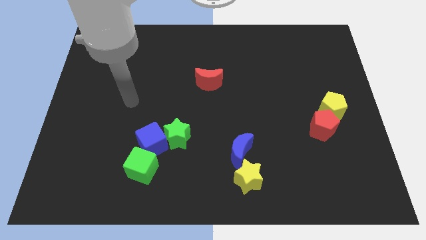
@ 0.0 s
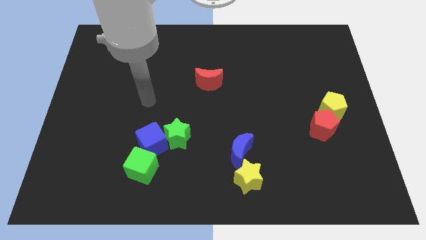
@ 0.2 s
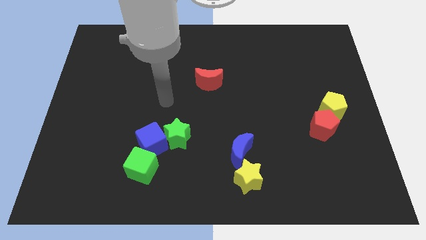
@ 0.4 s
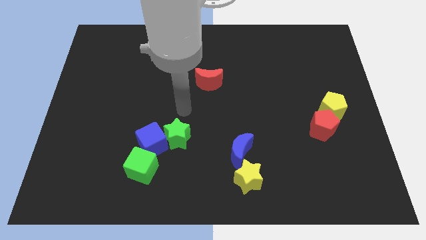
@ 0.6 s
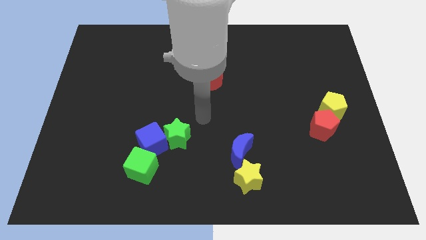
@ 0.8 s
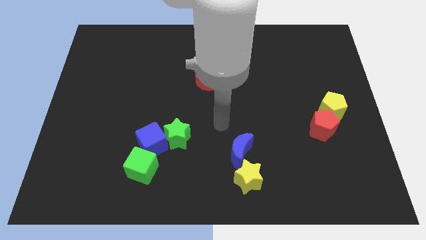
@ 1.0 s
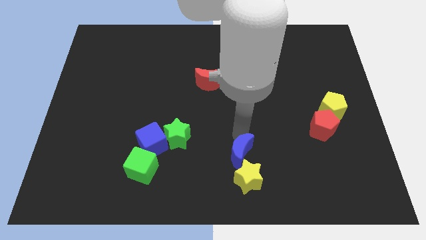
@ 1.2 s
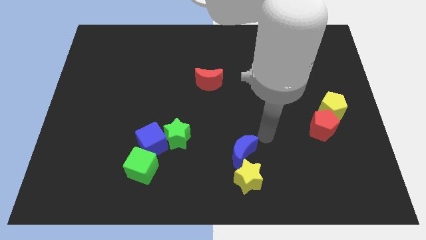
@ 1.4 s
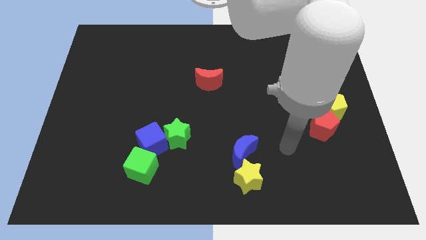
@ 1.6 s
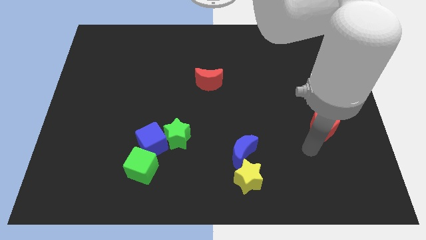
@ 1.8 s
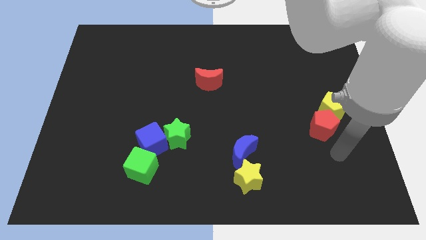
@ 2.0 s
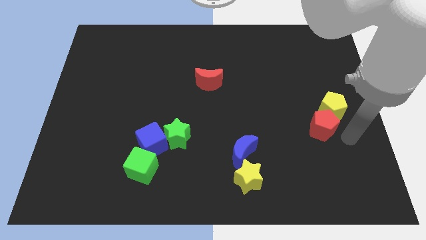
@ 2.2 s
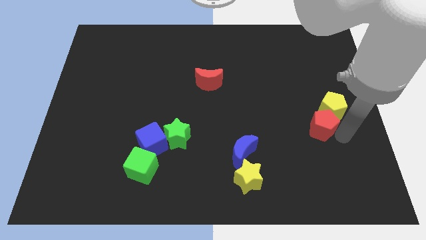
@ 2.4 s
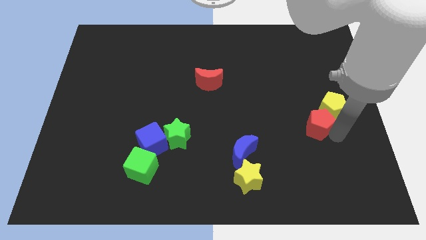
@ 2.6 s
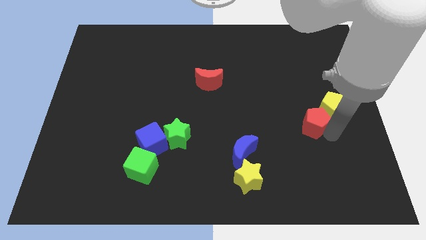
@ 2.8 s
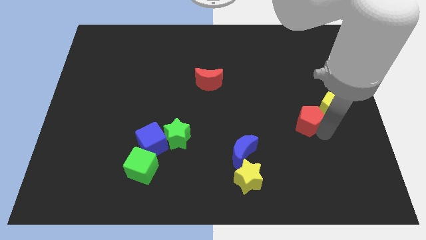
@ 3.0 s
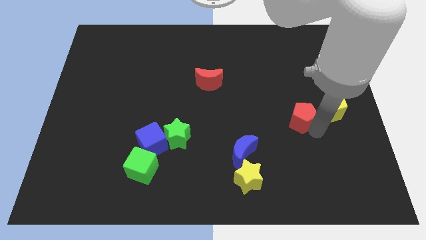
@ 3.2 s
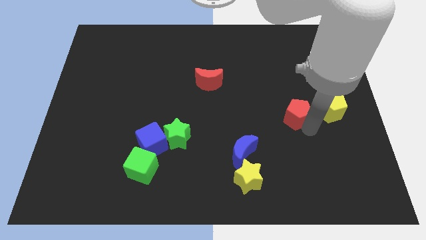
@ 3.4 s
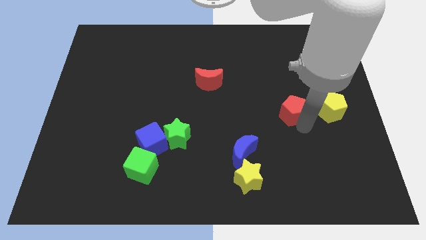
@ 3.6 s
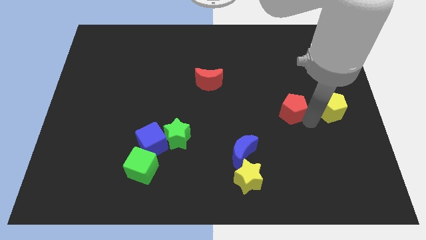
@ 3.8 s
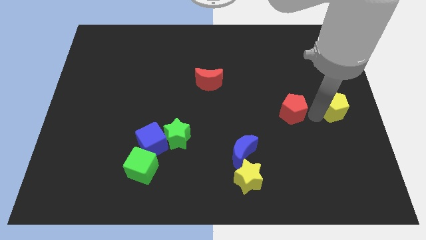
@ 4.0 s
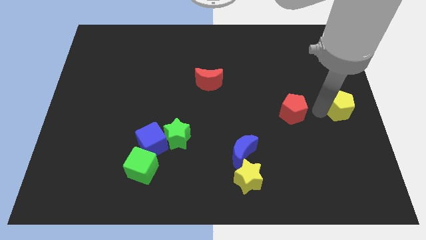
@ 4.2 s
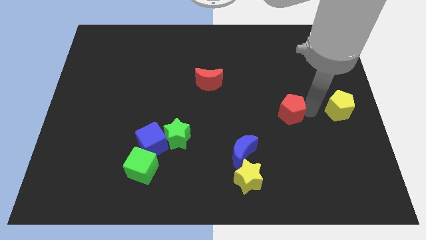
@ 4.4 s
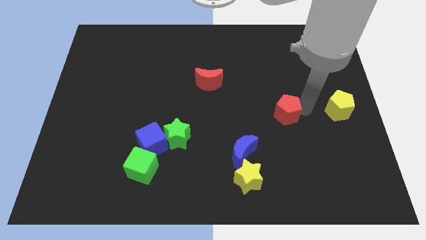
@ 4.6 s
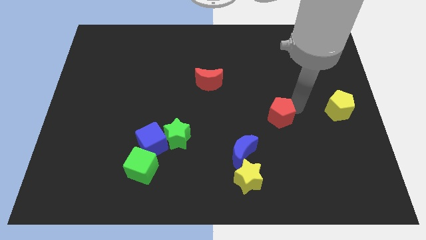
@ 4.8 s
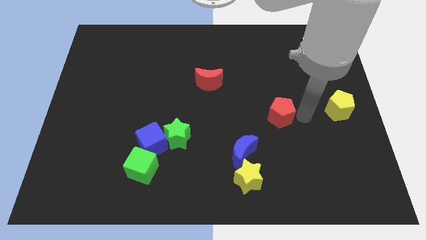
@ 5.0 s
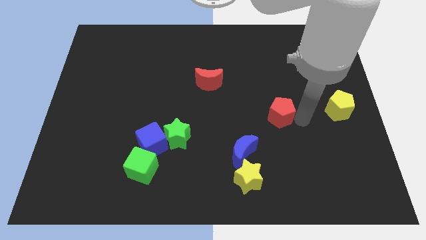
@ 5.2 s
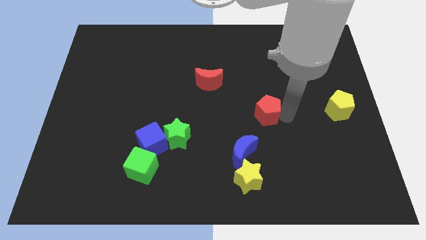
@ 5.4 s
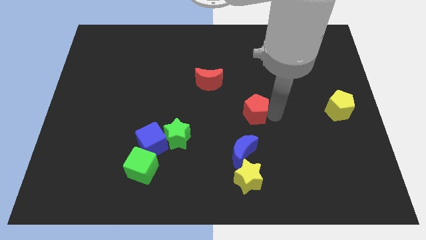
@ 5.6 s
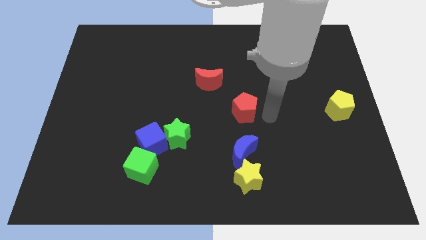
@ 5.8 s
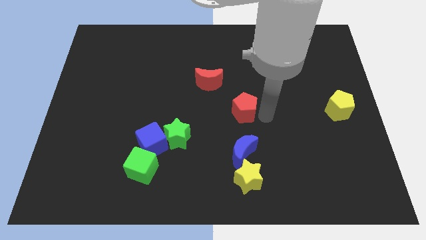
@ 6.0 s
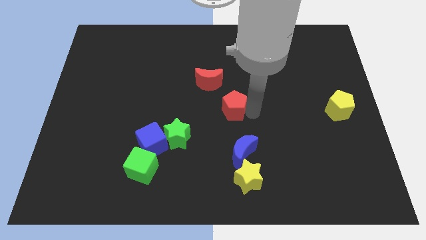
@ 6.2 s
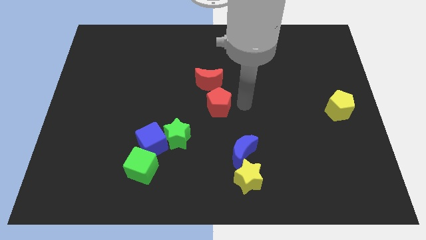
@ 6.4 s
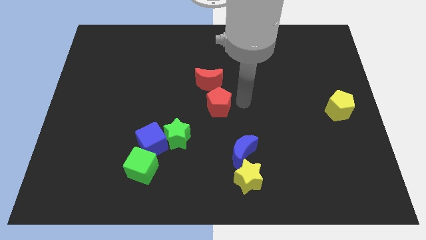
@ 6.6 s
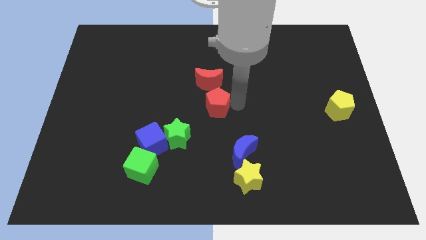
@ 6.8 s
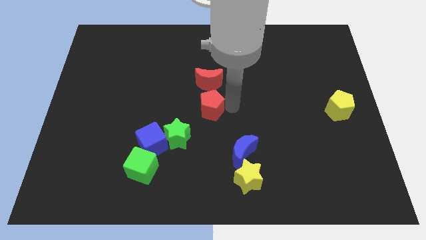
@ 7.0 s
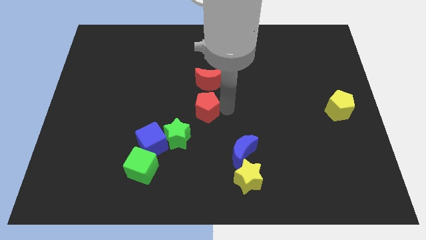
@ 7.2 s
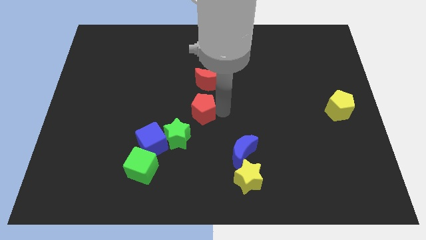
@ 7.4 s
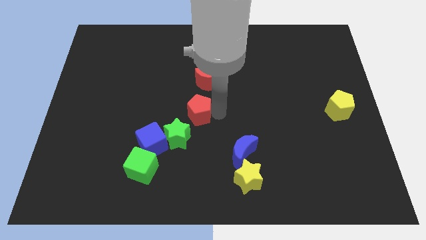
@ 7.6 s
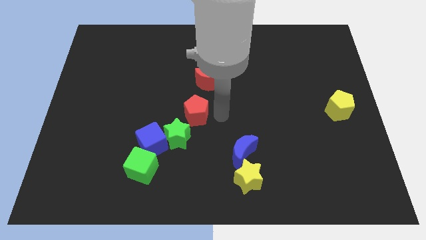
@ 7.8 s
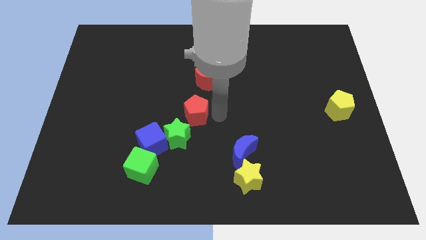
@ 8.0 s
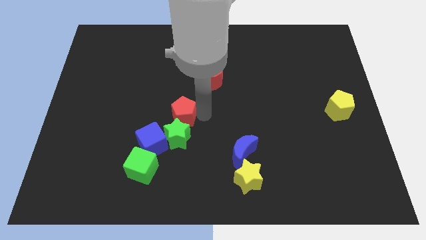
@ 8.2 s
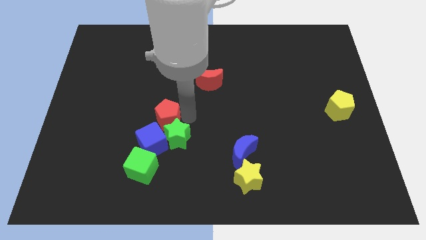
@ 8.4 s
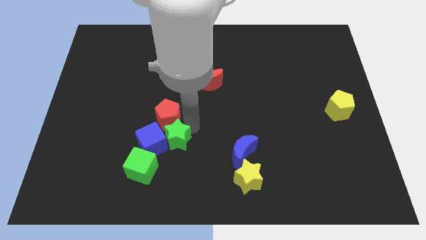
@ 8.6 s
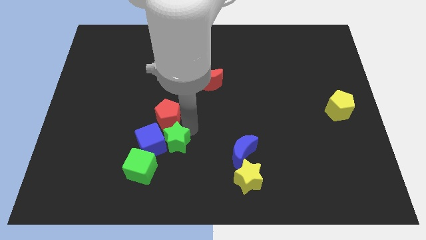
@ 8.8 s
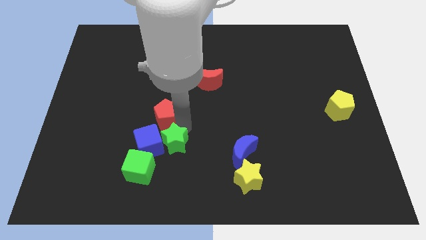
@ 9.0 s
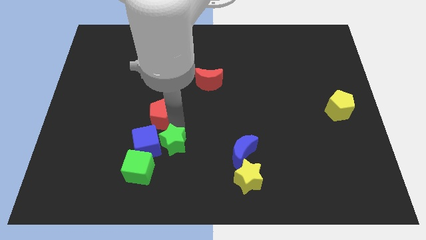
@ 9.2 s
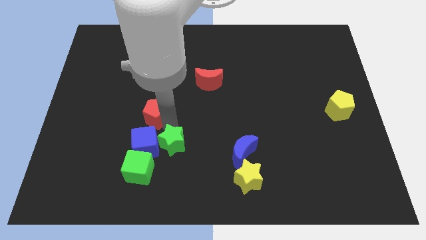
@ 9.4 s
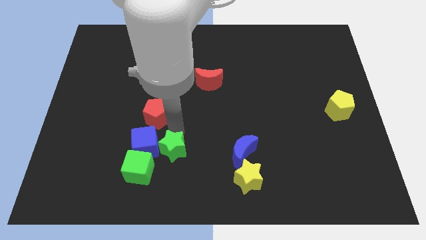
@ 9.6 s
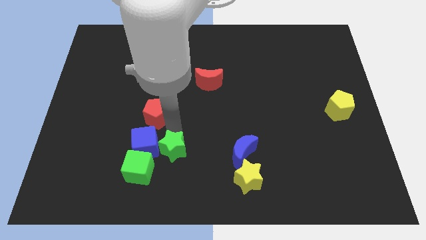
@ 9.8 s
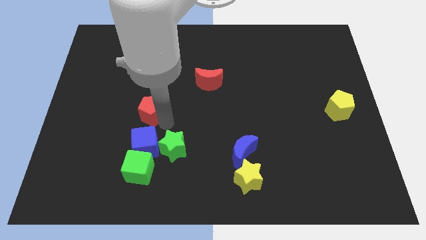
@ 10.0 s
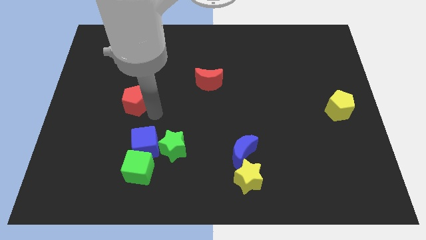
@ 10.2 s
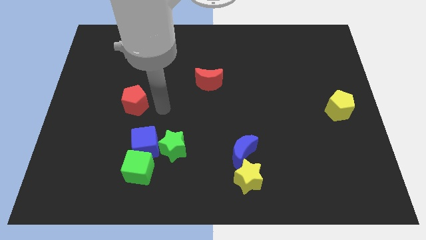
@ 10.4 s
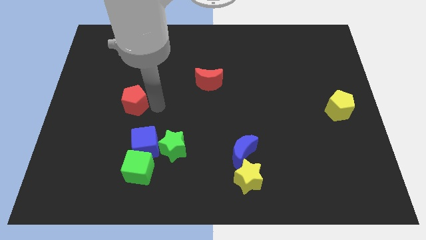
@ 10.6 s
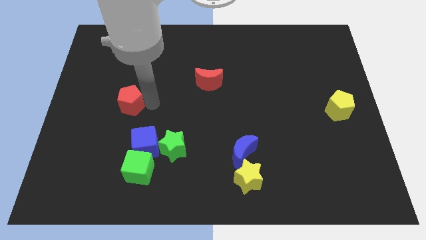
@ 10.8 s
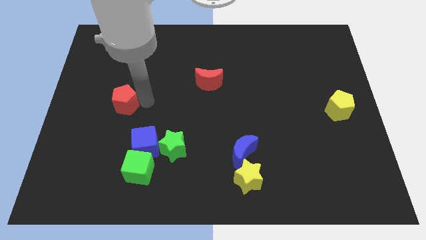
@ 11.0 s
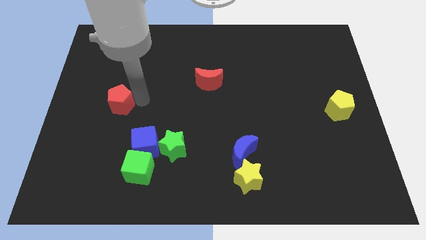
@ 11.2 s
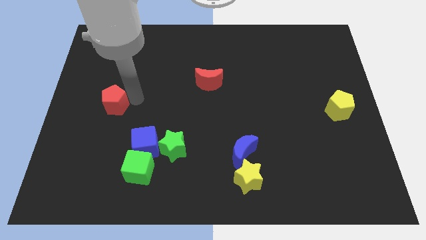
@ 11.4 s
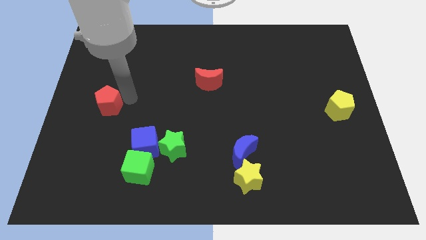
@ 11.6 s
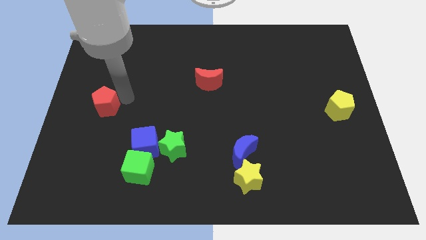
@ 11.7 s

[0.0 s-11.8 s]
move the red pentagon to the center left
